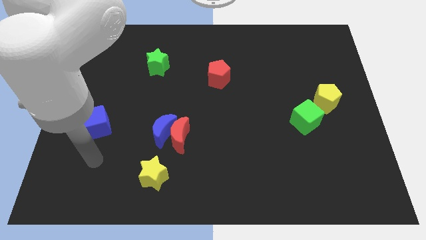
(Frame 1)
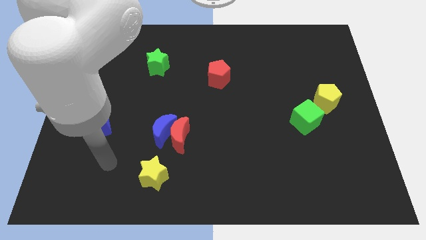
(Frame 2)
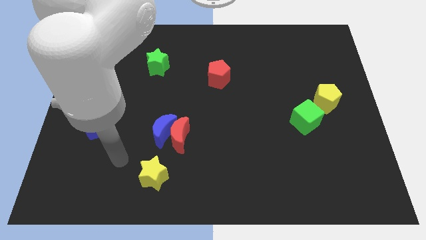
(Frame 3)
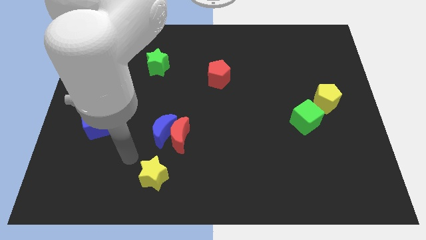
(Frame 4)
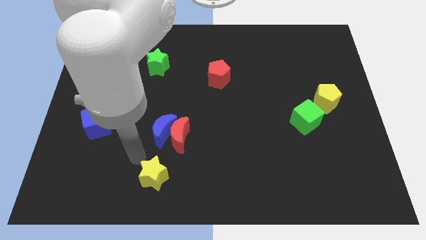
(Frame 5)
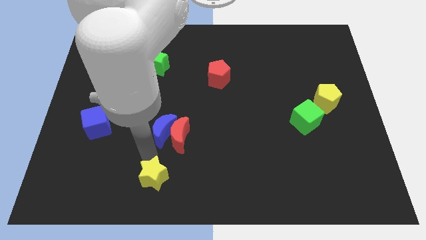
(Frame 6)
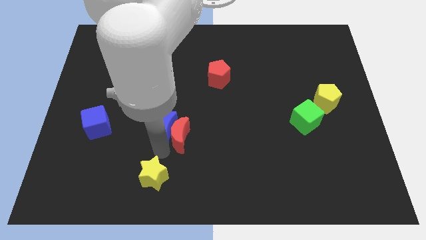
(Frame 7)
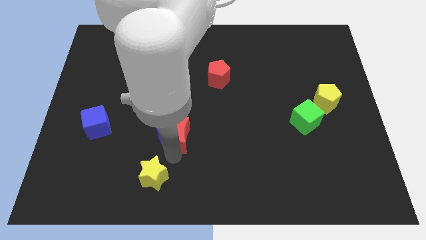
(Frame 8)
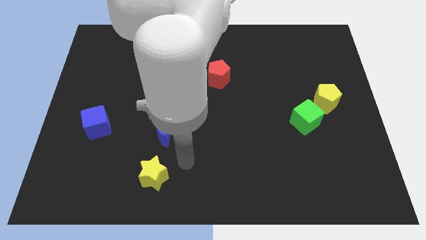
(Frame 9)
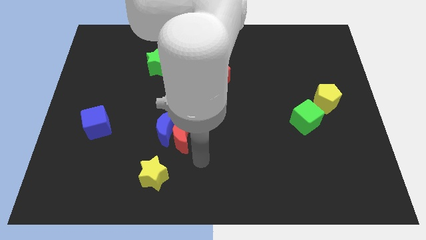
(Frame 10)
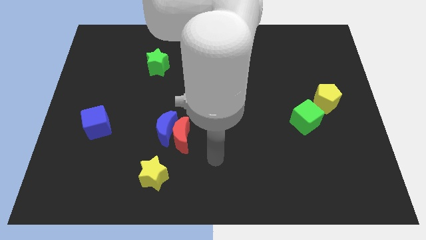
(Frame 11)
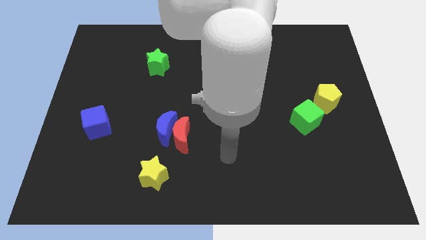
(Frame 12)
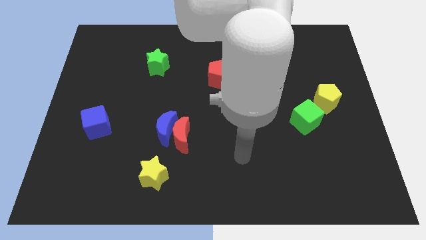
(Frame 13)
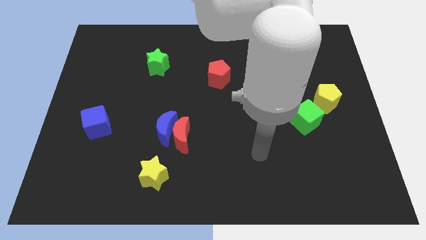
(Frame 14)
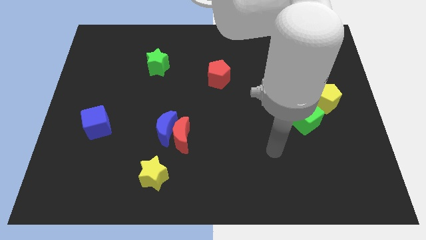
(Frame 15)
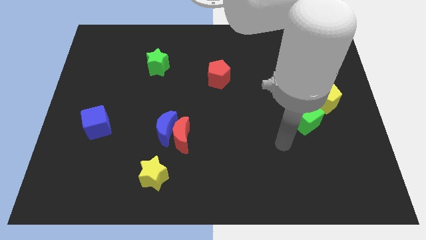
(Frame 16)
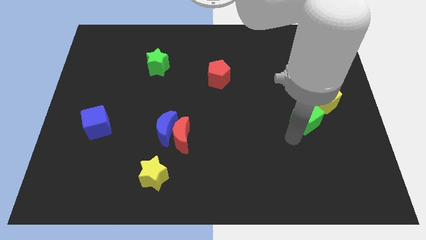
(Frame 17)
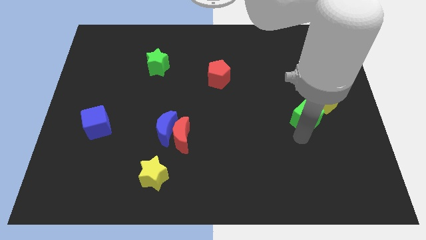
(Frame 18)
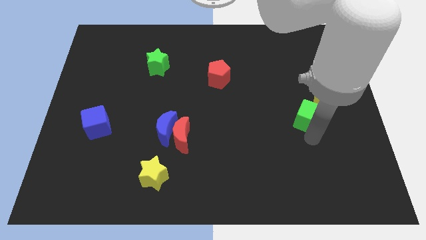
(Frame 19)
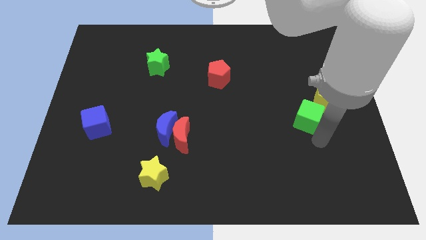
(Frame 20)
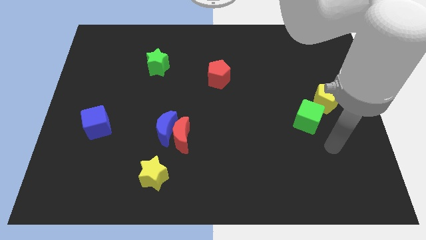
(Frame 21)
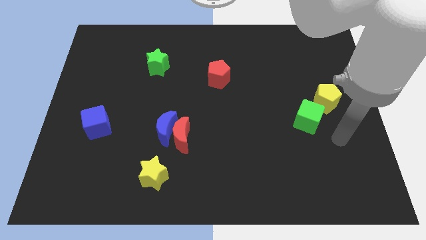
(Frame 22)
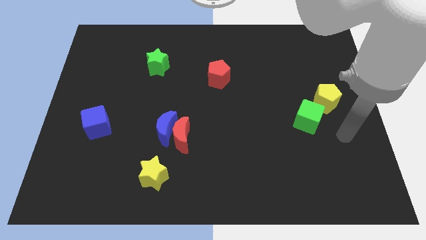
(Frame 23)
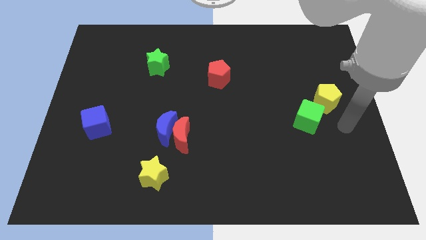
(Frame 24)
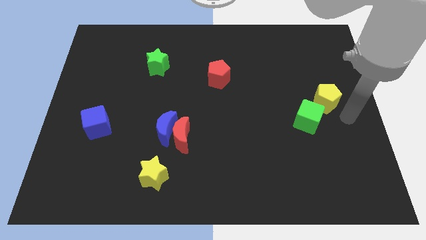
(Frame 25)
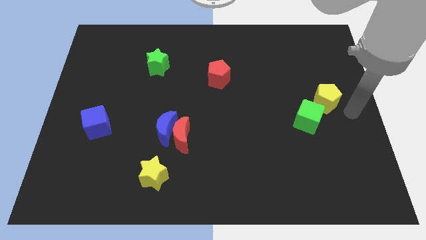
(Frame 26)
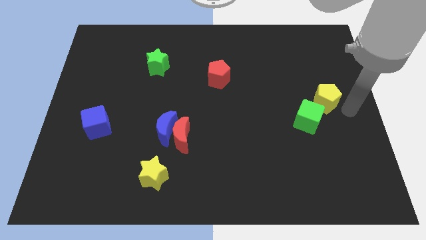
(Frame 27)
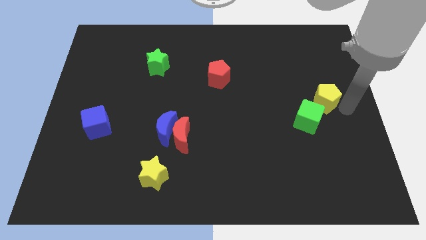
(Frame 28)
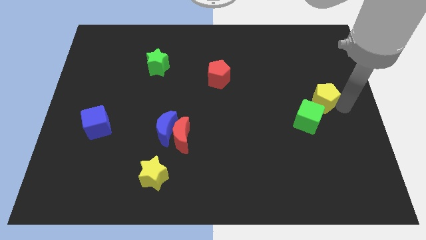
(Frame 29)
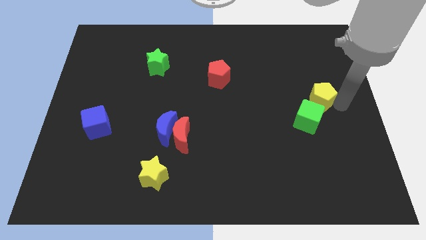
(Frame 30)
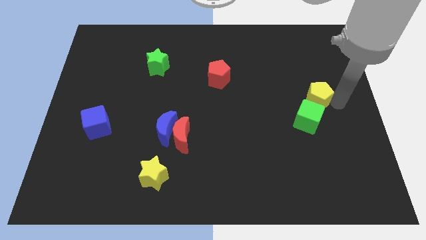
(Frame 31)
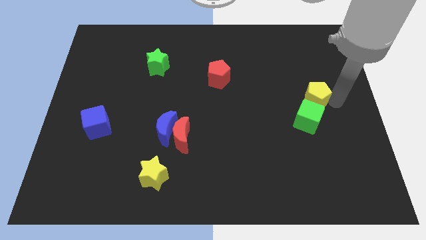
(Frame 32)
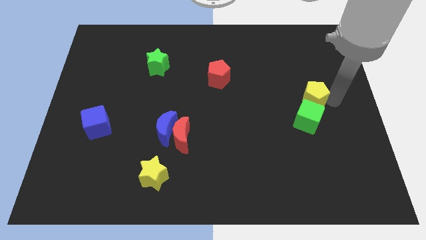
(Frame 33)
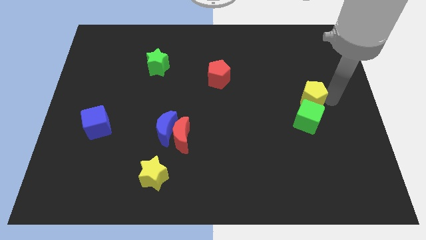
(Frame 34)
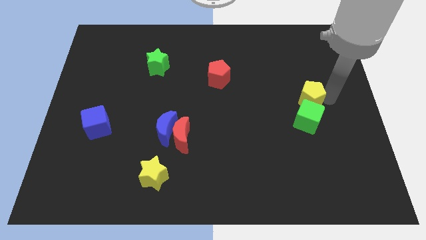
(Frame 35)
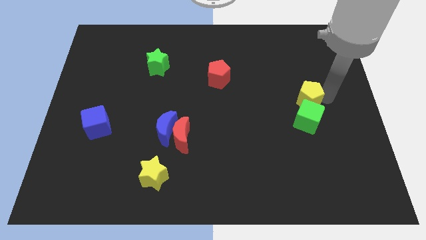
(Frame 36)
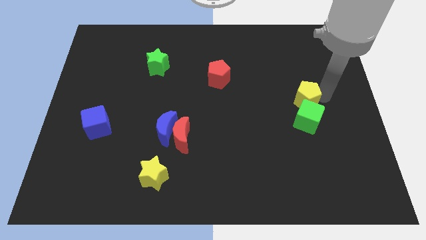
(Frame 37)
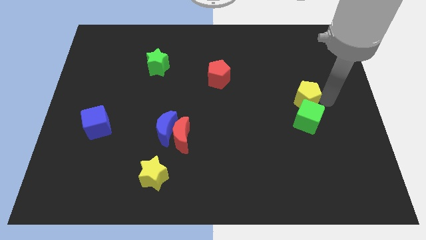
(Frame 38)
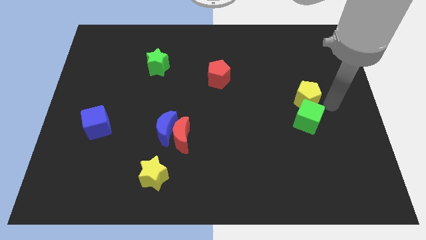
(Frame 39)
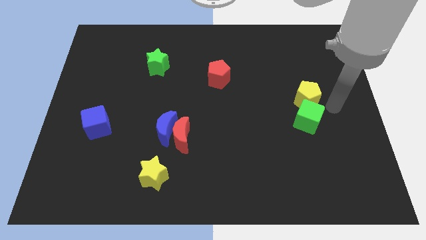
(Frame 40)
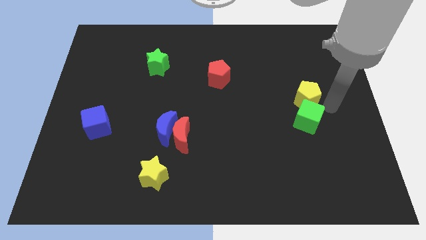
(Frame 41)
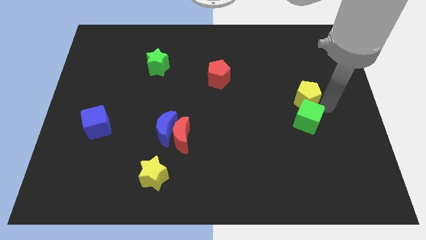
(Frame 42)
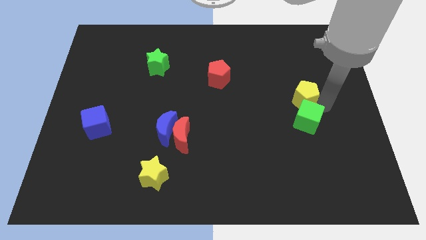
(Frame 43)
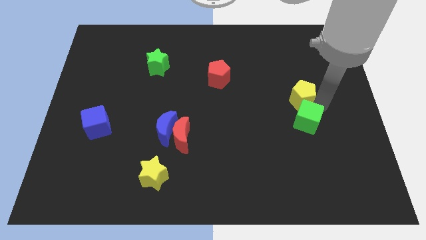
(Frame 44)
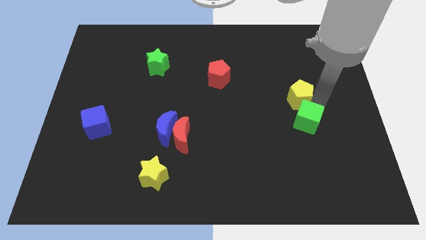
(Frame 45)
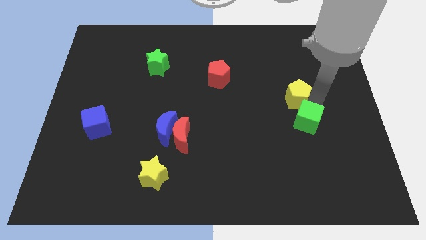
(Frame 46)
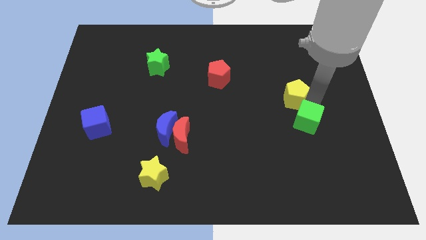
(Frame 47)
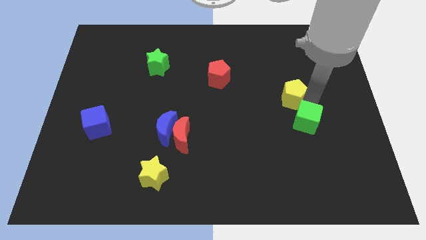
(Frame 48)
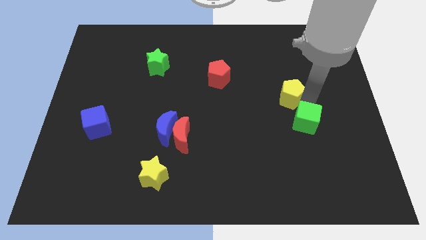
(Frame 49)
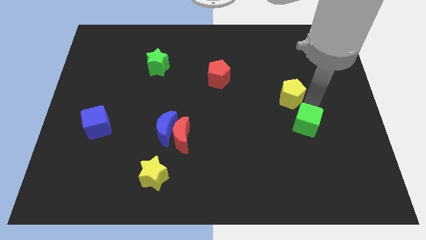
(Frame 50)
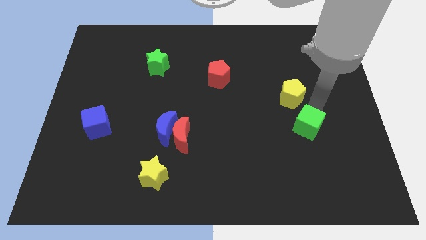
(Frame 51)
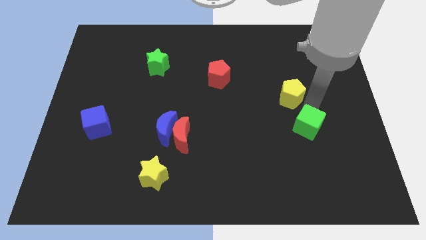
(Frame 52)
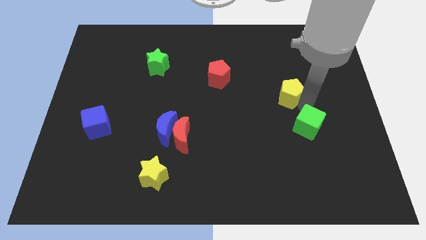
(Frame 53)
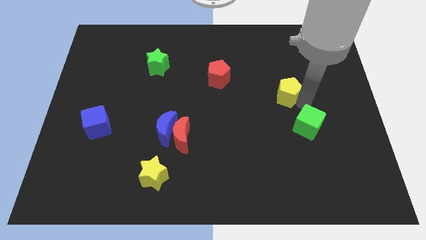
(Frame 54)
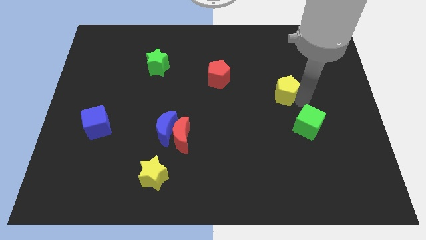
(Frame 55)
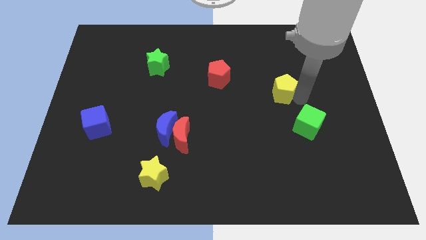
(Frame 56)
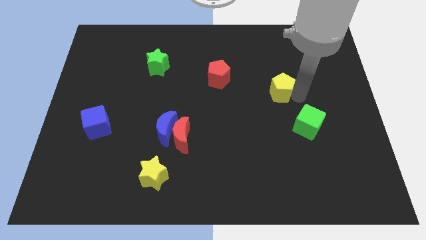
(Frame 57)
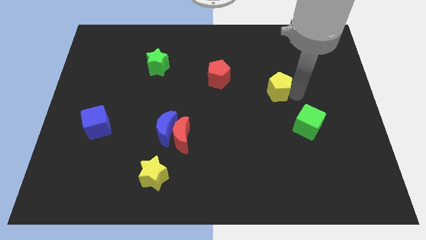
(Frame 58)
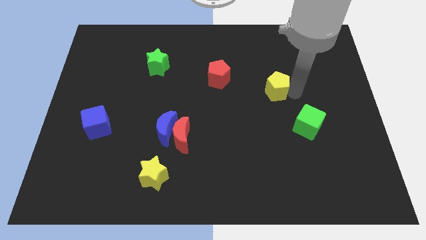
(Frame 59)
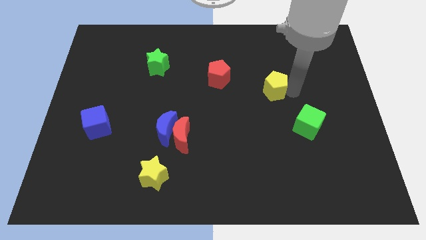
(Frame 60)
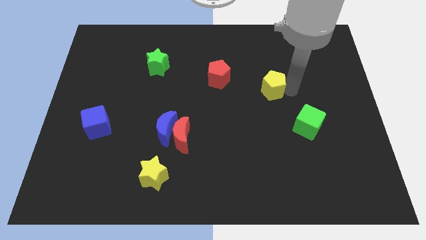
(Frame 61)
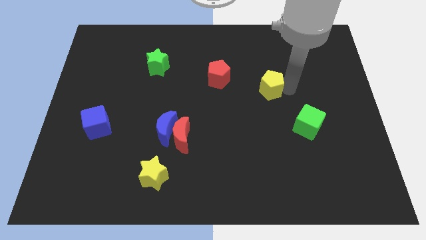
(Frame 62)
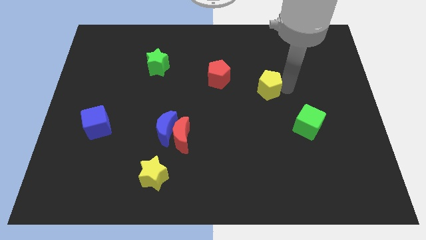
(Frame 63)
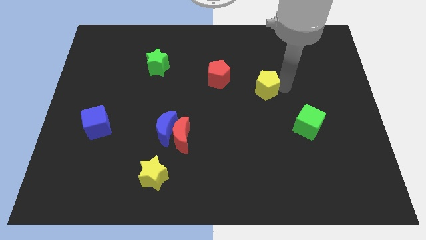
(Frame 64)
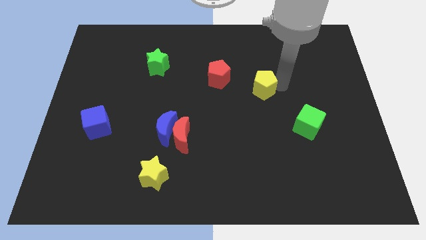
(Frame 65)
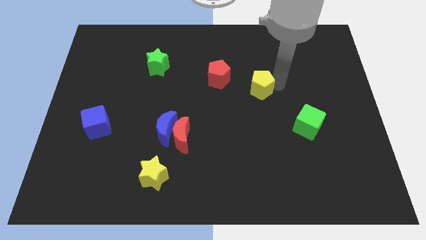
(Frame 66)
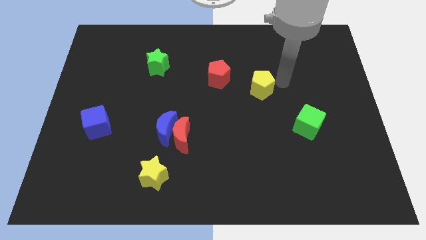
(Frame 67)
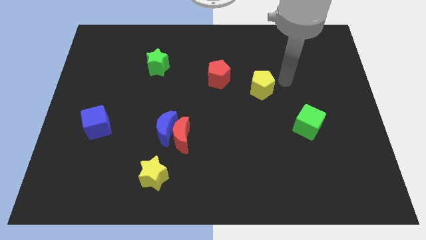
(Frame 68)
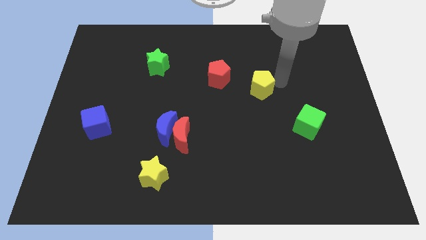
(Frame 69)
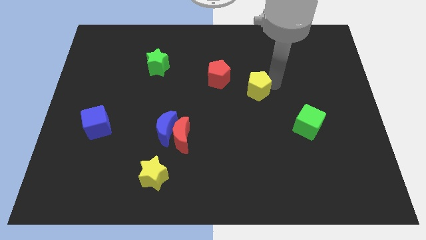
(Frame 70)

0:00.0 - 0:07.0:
put the yellow pentagon diagonally down and to the right of the red pentagon
